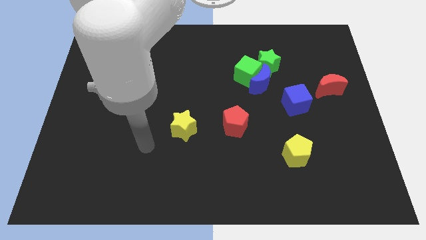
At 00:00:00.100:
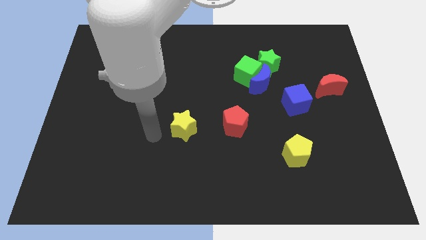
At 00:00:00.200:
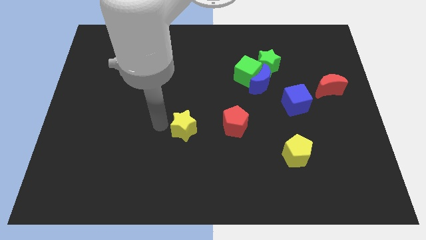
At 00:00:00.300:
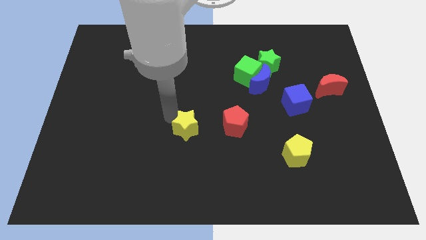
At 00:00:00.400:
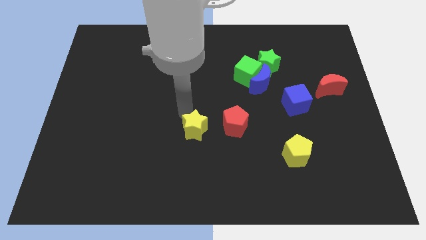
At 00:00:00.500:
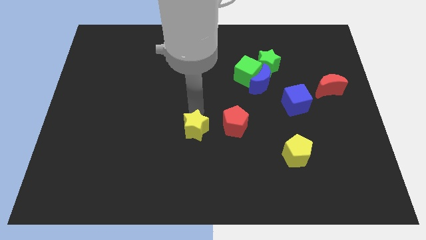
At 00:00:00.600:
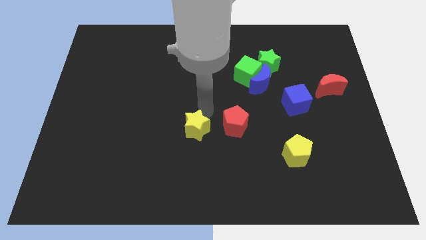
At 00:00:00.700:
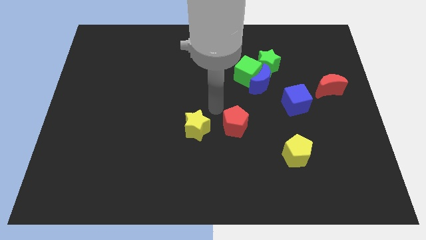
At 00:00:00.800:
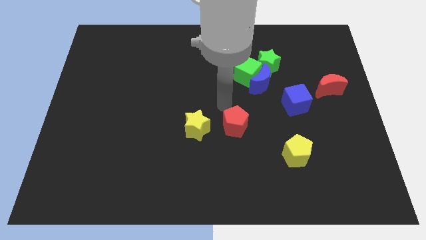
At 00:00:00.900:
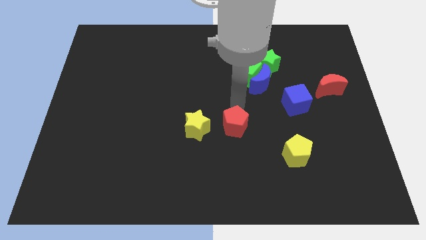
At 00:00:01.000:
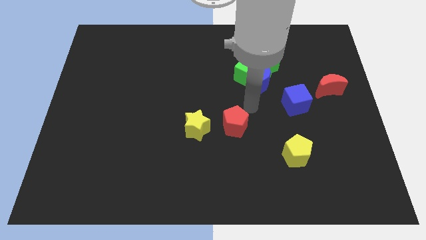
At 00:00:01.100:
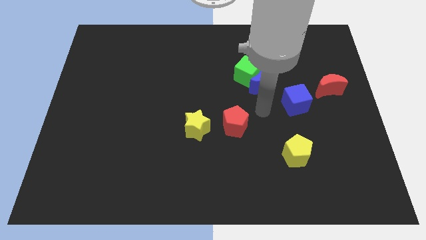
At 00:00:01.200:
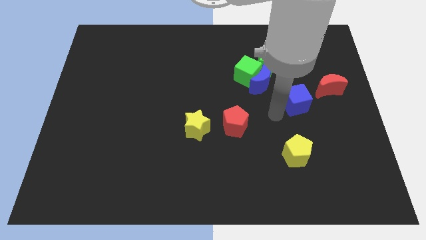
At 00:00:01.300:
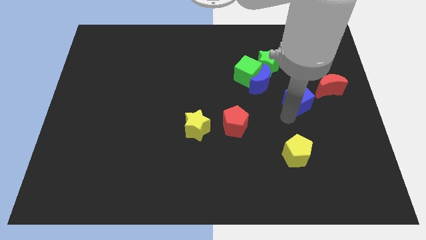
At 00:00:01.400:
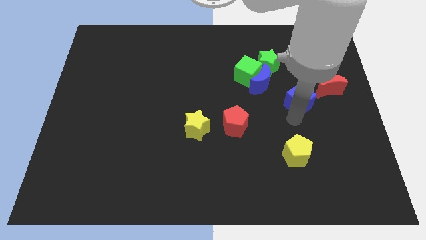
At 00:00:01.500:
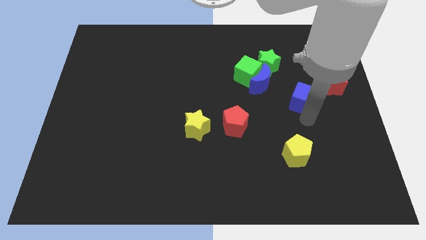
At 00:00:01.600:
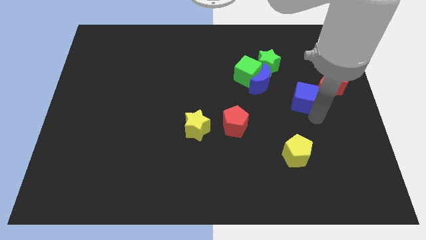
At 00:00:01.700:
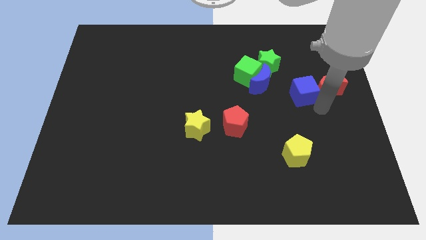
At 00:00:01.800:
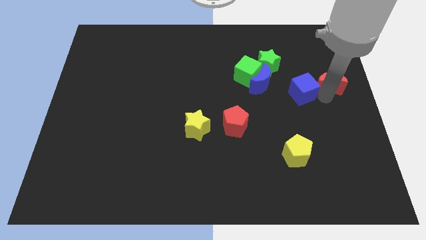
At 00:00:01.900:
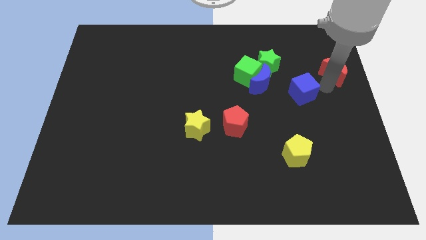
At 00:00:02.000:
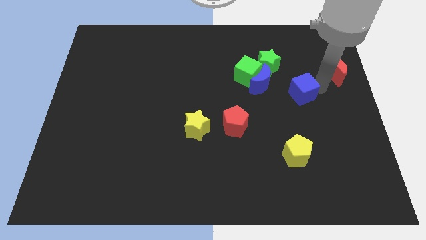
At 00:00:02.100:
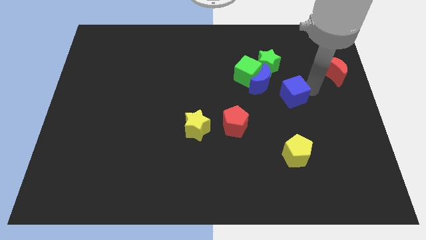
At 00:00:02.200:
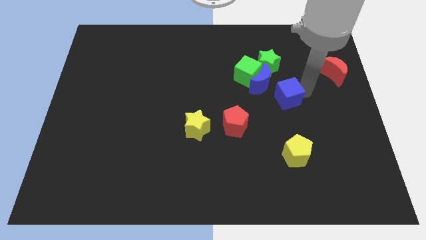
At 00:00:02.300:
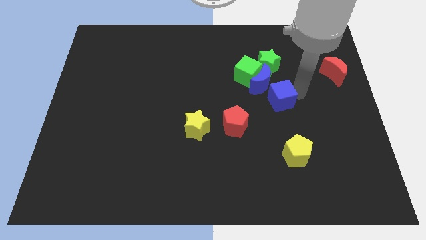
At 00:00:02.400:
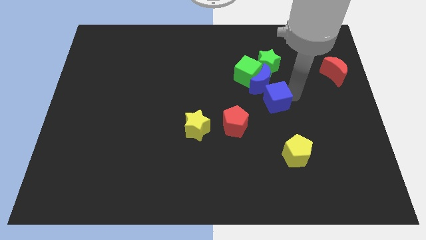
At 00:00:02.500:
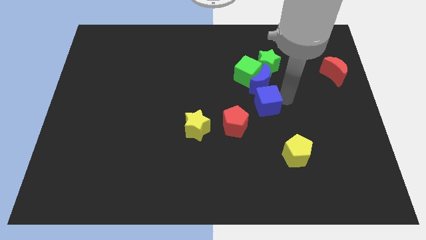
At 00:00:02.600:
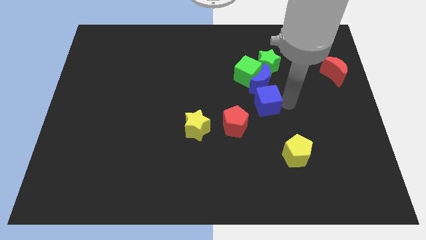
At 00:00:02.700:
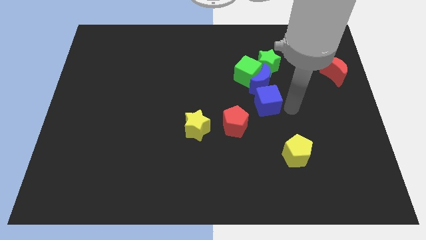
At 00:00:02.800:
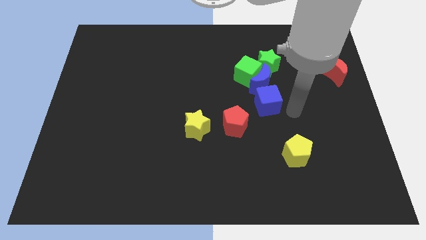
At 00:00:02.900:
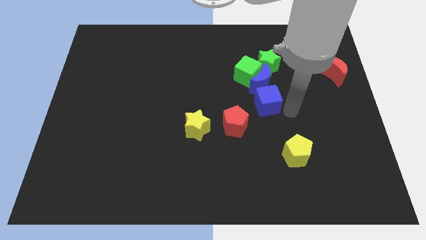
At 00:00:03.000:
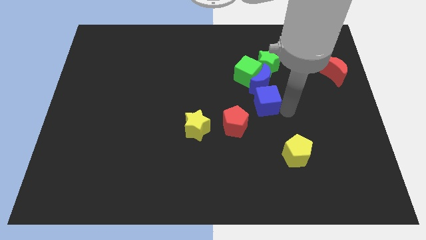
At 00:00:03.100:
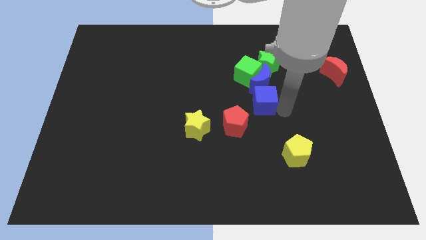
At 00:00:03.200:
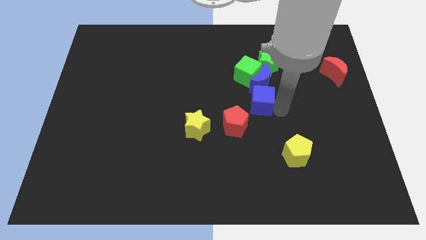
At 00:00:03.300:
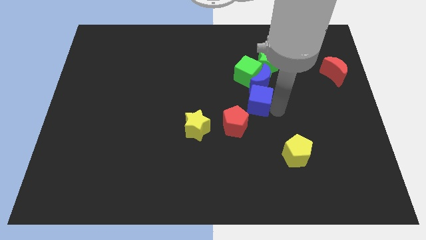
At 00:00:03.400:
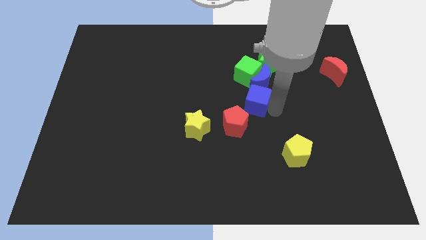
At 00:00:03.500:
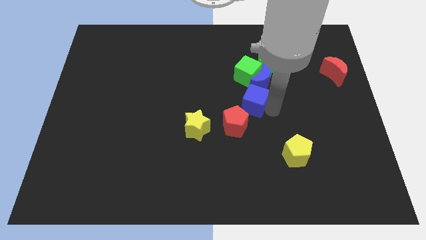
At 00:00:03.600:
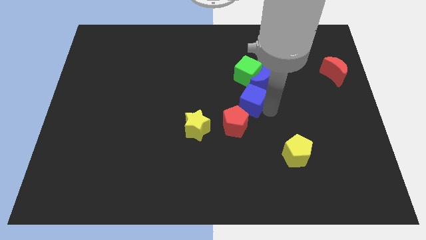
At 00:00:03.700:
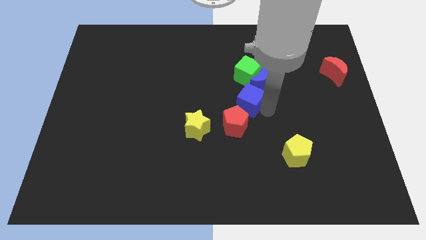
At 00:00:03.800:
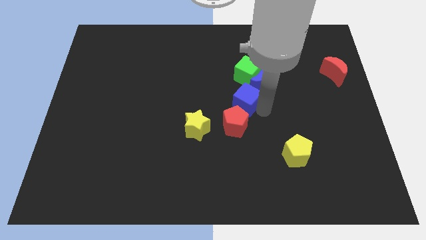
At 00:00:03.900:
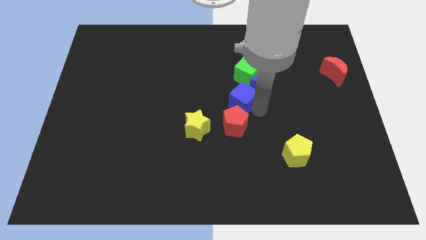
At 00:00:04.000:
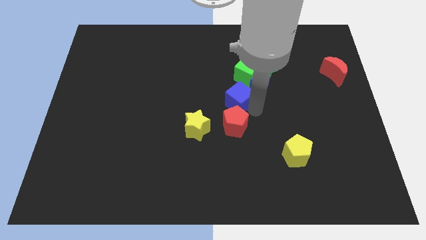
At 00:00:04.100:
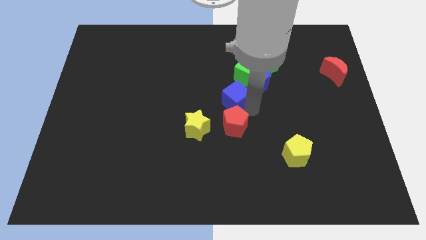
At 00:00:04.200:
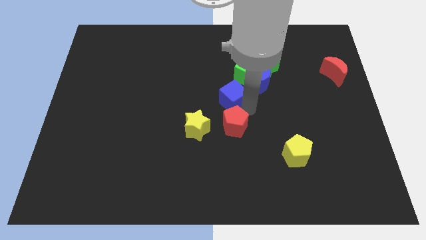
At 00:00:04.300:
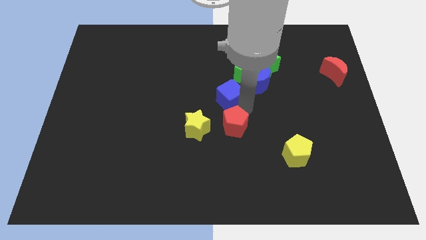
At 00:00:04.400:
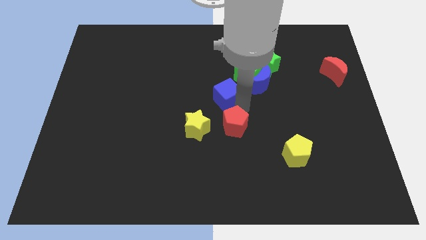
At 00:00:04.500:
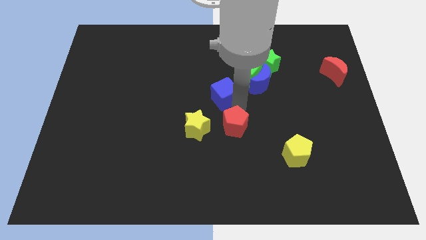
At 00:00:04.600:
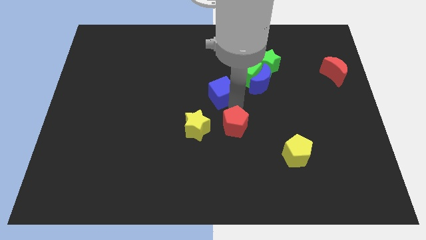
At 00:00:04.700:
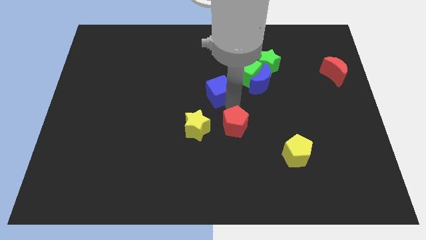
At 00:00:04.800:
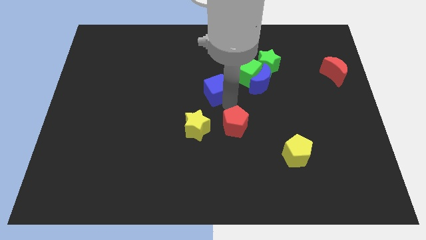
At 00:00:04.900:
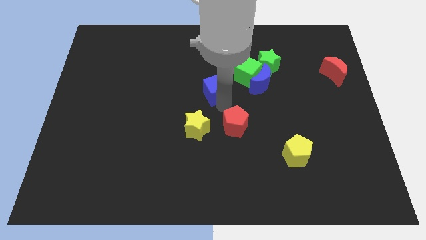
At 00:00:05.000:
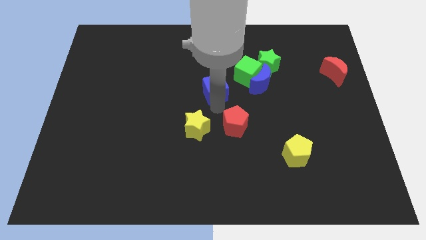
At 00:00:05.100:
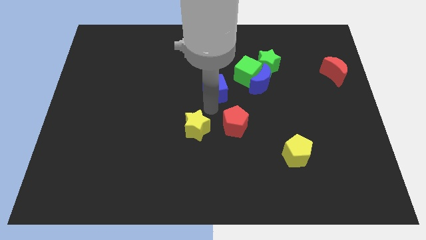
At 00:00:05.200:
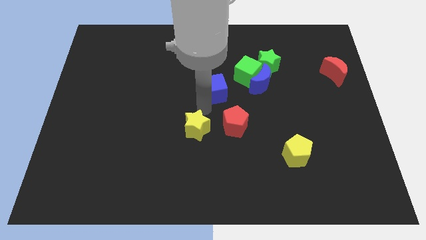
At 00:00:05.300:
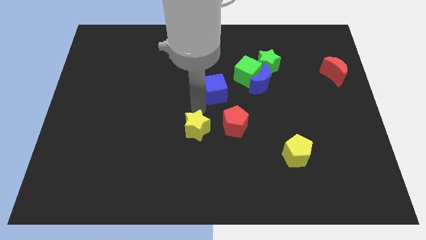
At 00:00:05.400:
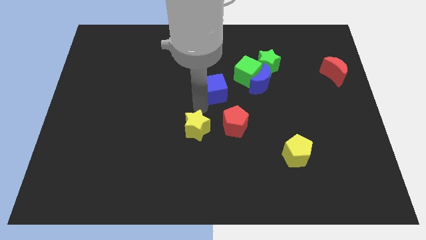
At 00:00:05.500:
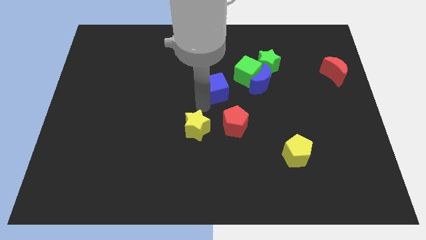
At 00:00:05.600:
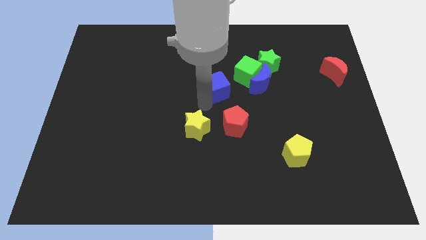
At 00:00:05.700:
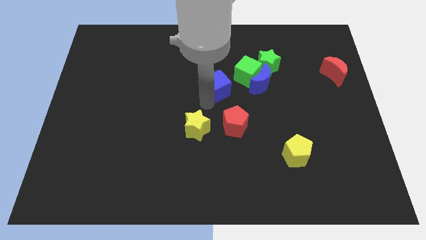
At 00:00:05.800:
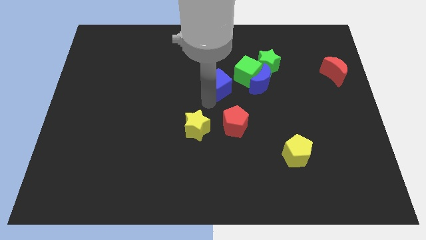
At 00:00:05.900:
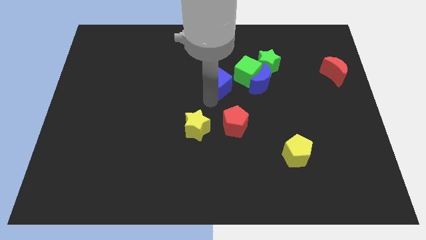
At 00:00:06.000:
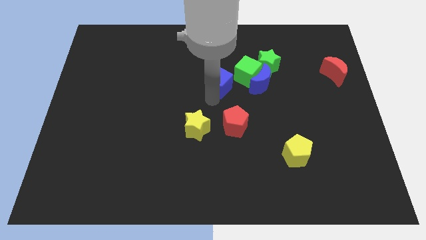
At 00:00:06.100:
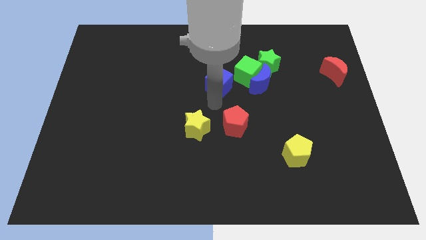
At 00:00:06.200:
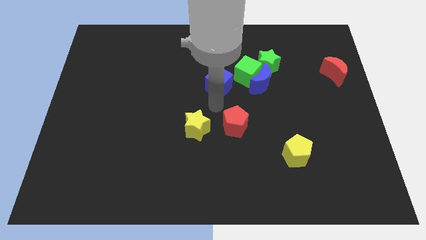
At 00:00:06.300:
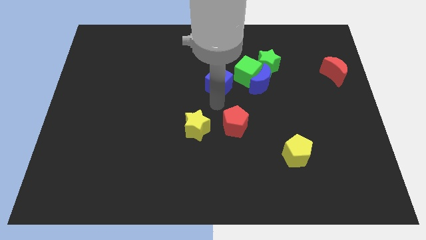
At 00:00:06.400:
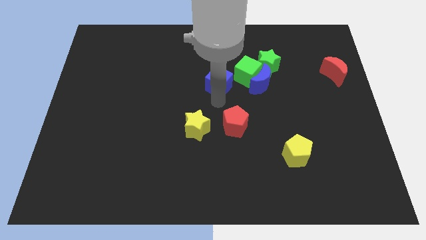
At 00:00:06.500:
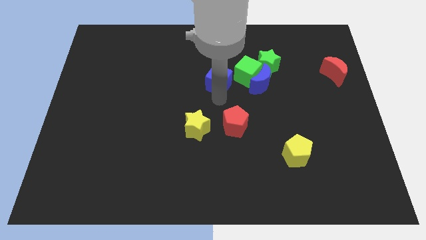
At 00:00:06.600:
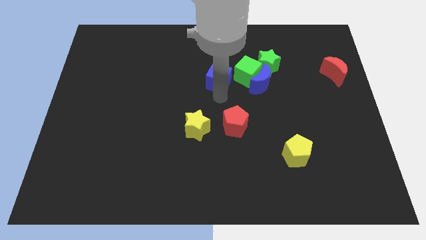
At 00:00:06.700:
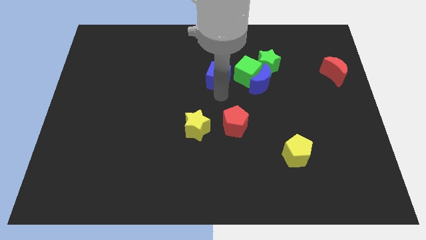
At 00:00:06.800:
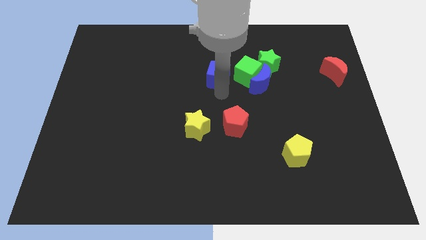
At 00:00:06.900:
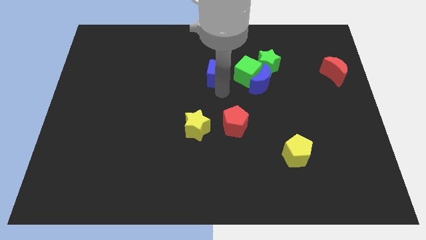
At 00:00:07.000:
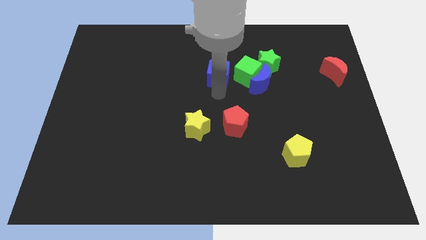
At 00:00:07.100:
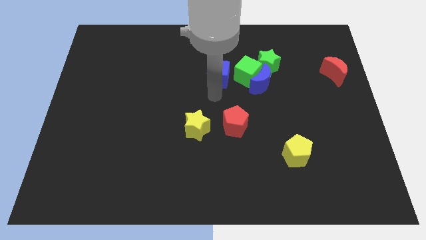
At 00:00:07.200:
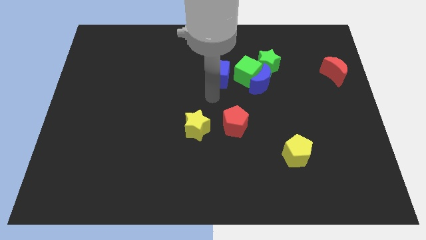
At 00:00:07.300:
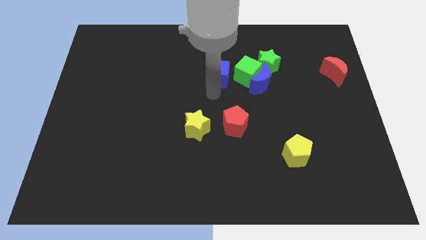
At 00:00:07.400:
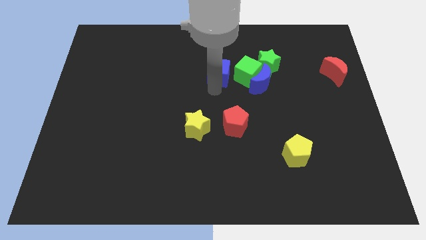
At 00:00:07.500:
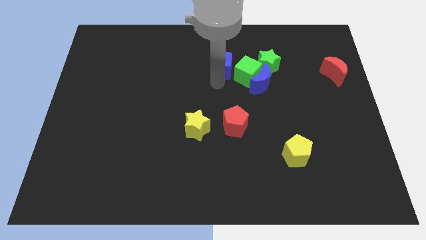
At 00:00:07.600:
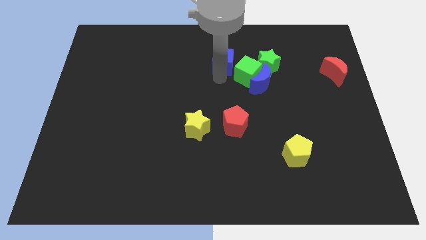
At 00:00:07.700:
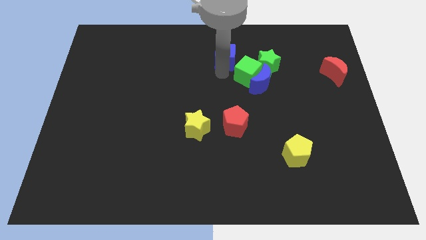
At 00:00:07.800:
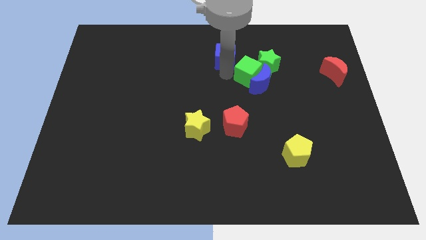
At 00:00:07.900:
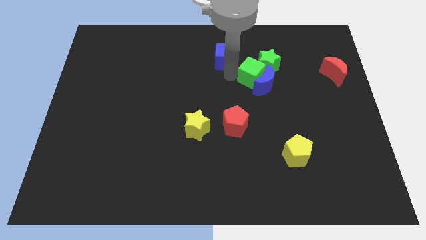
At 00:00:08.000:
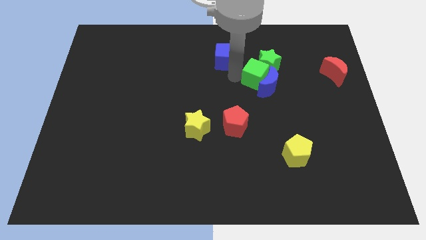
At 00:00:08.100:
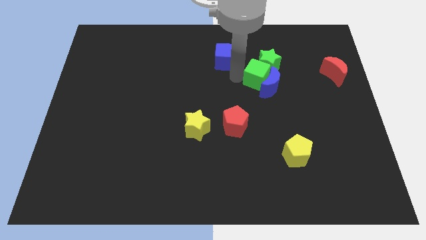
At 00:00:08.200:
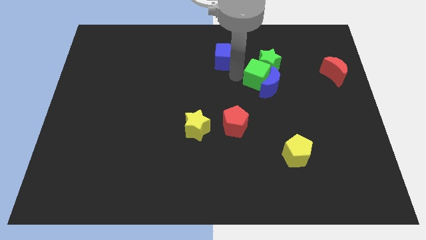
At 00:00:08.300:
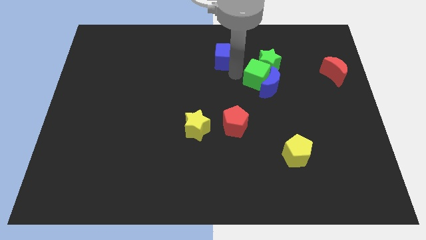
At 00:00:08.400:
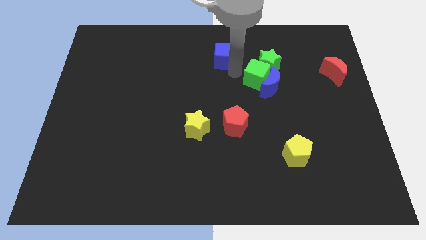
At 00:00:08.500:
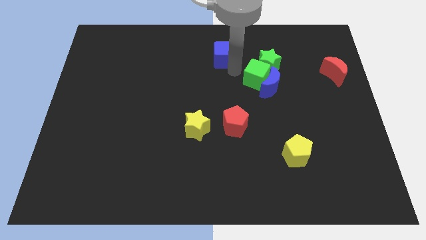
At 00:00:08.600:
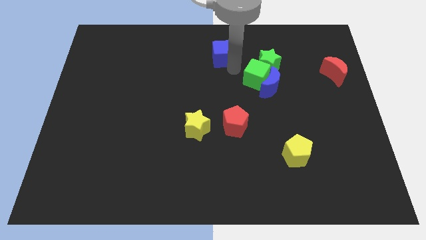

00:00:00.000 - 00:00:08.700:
put the blue cube to the towards your base
